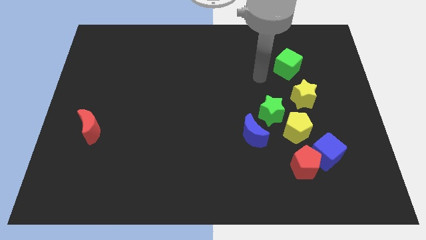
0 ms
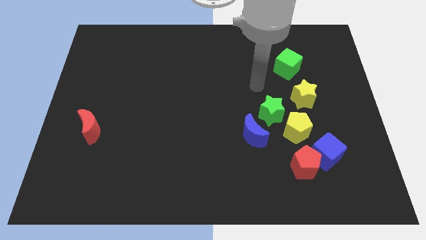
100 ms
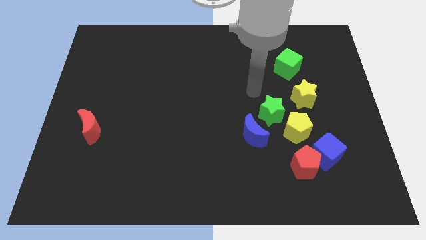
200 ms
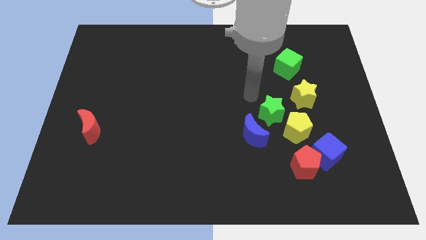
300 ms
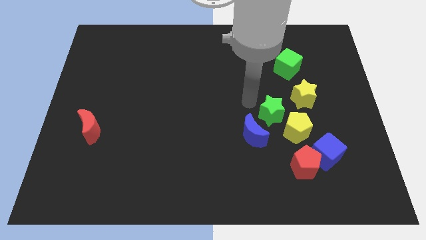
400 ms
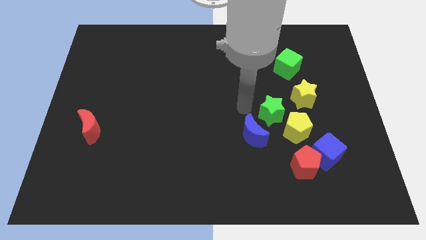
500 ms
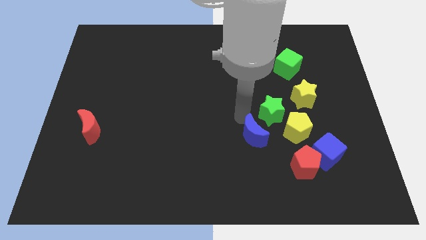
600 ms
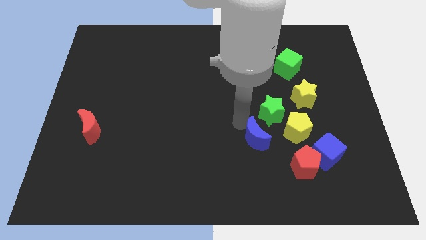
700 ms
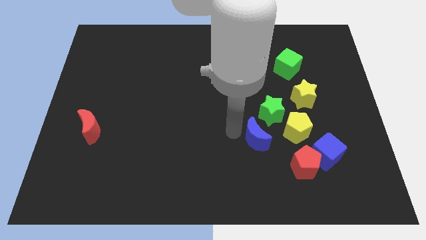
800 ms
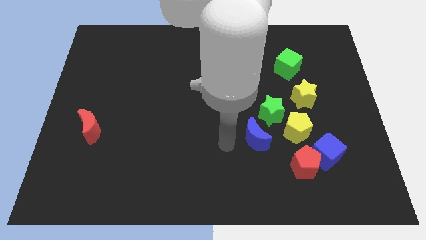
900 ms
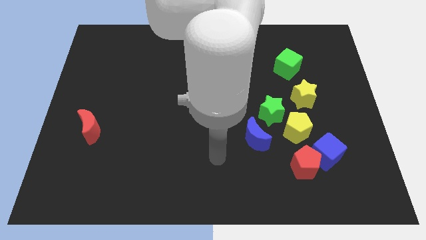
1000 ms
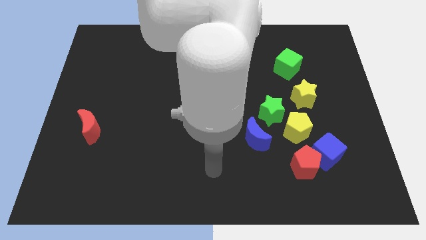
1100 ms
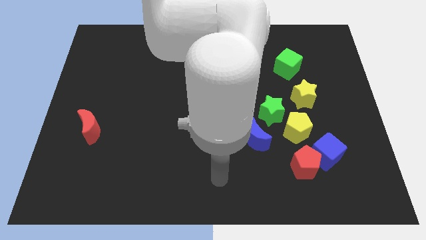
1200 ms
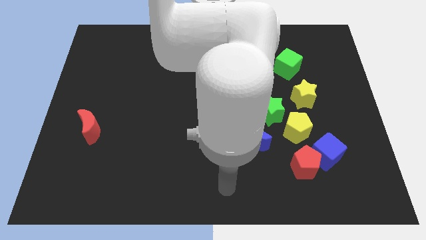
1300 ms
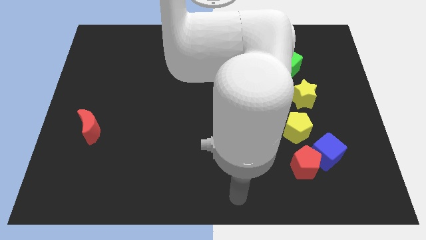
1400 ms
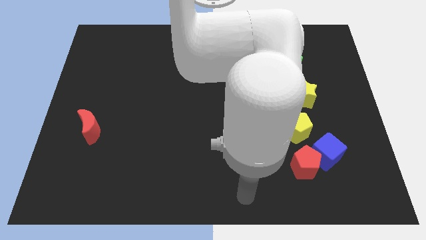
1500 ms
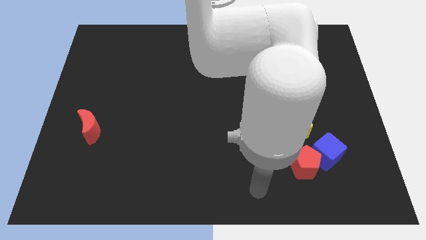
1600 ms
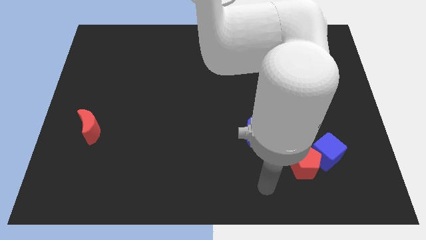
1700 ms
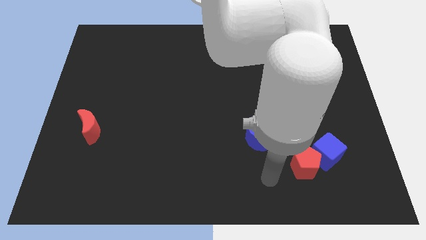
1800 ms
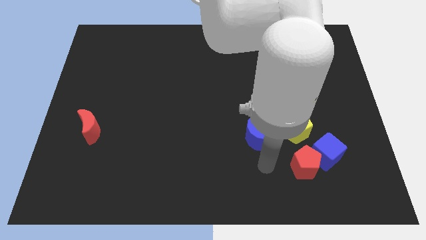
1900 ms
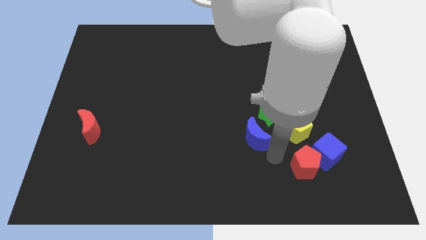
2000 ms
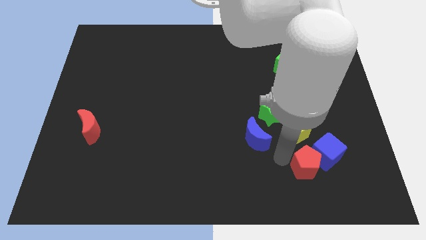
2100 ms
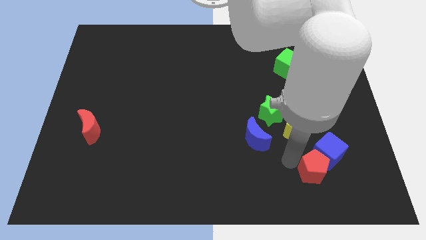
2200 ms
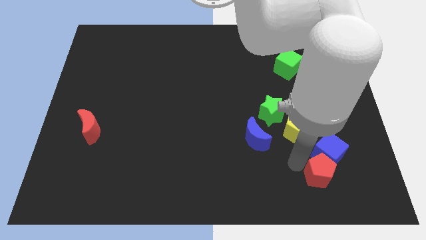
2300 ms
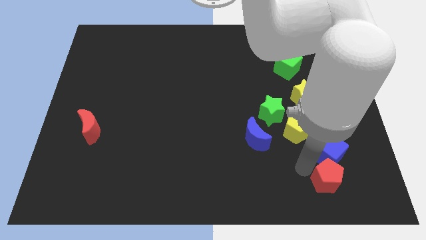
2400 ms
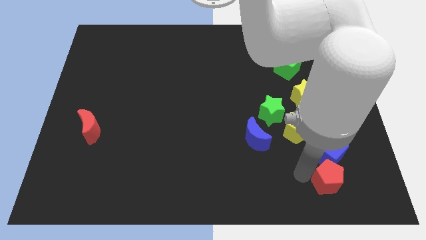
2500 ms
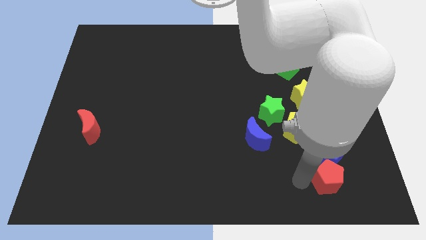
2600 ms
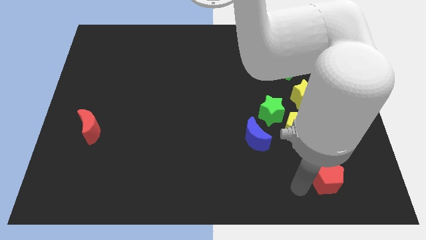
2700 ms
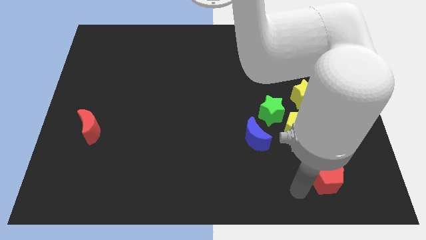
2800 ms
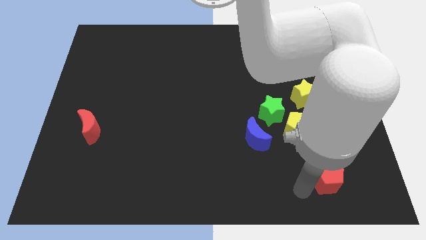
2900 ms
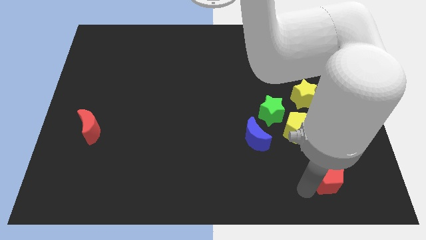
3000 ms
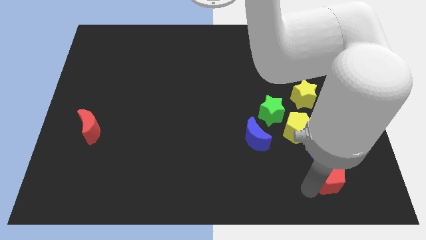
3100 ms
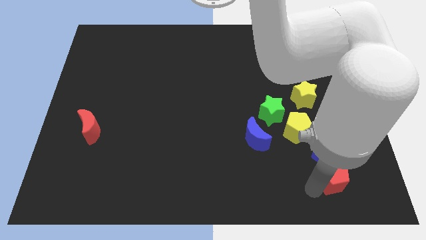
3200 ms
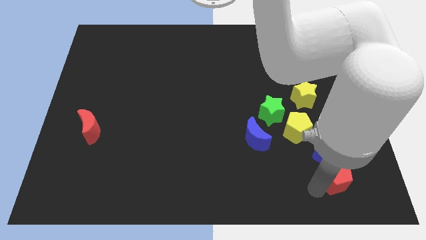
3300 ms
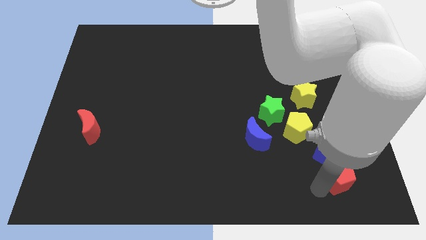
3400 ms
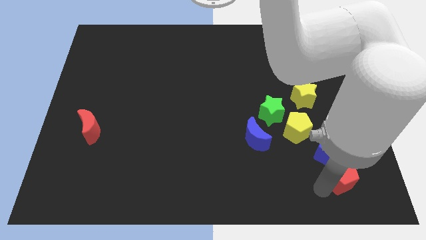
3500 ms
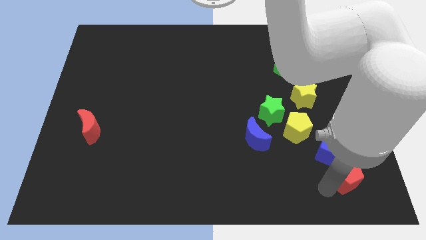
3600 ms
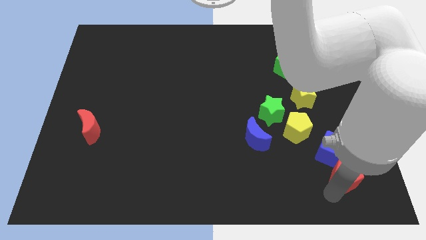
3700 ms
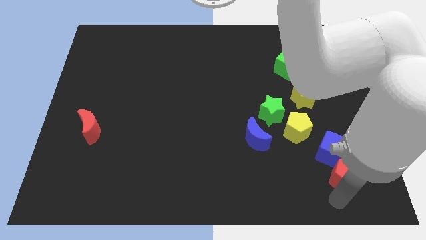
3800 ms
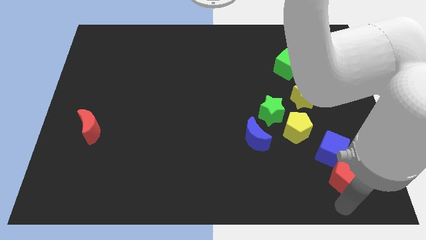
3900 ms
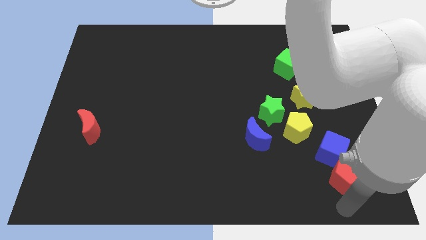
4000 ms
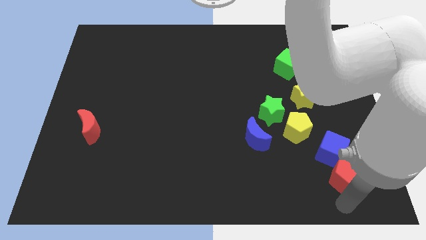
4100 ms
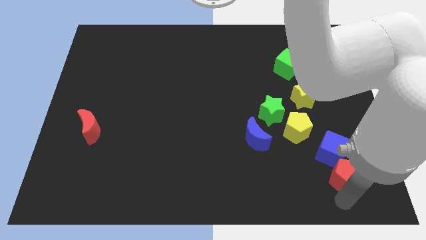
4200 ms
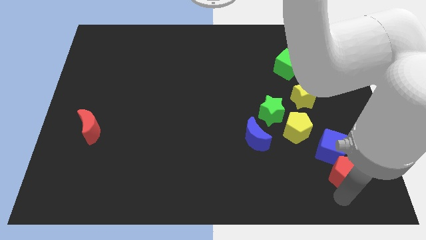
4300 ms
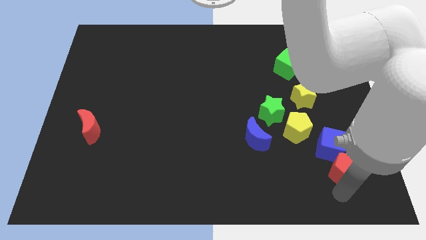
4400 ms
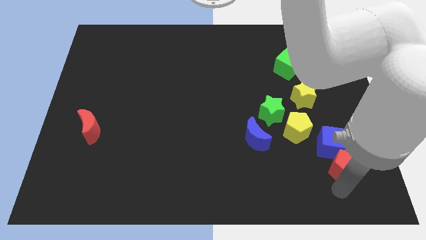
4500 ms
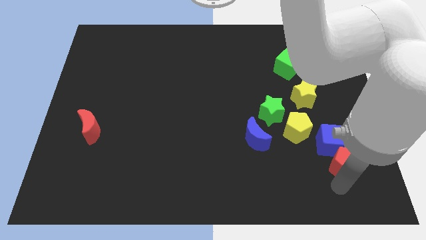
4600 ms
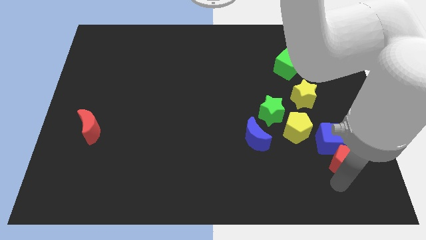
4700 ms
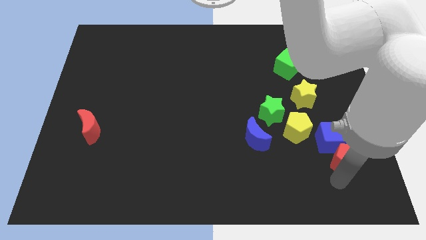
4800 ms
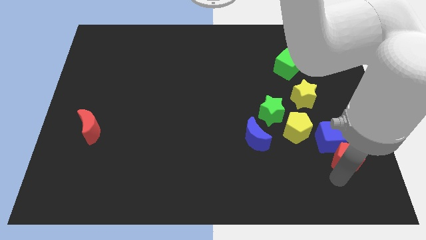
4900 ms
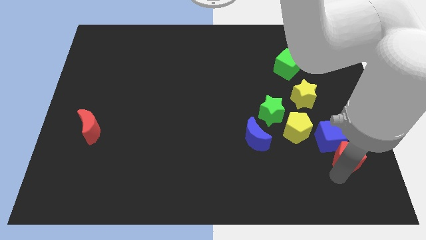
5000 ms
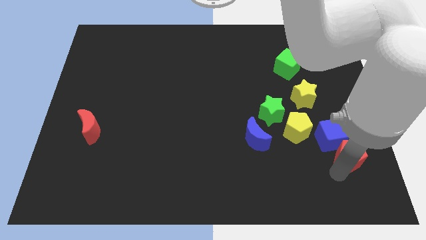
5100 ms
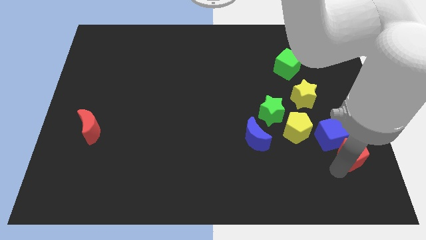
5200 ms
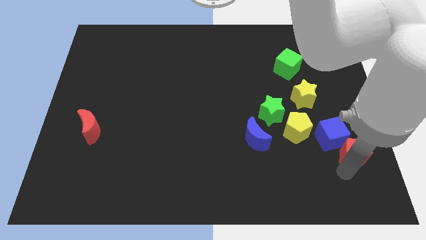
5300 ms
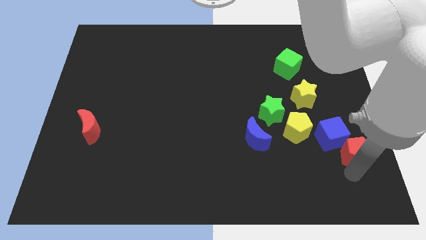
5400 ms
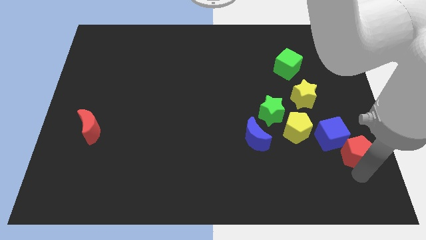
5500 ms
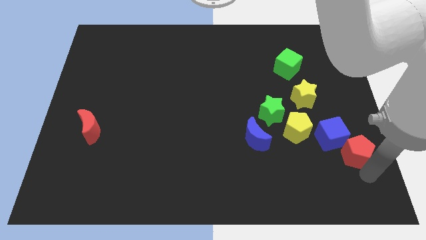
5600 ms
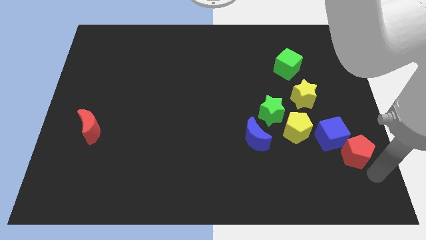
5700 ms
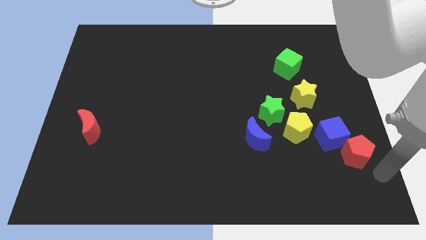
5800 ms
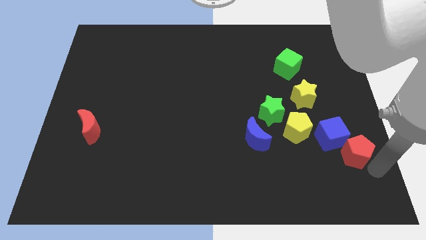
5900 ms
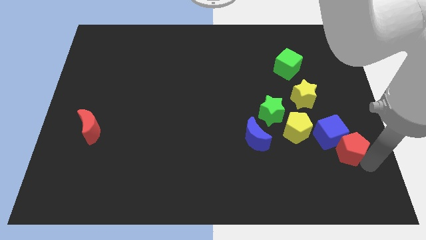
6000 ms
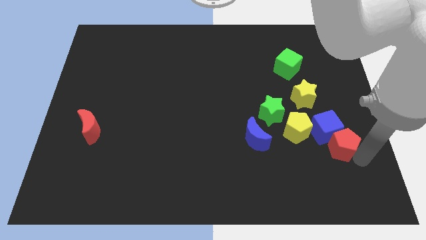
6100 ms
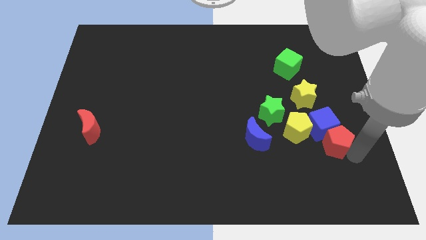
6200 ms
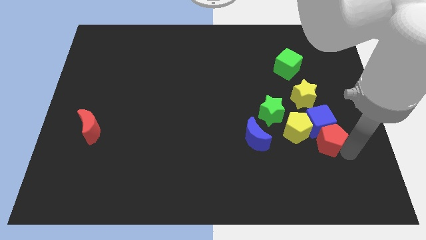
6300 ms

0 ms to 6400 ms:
put the red pentagon below the yellow star
